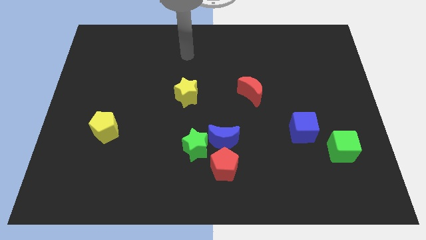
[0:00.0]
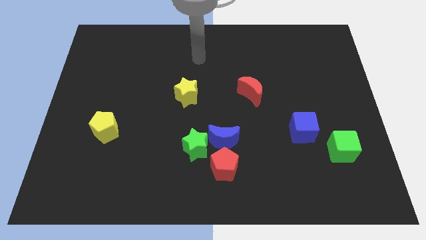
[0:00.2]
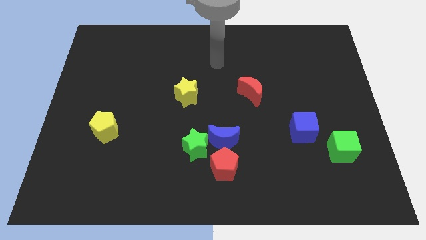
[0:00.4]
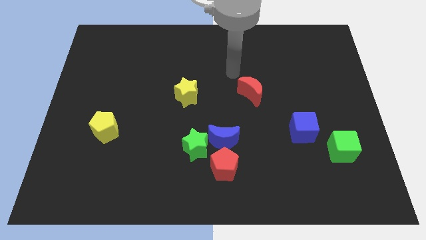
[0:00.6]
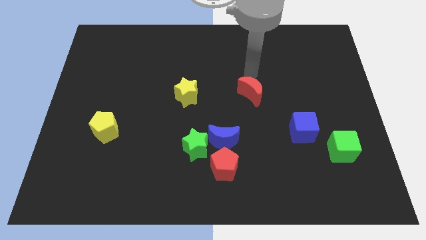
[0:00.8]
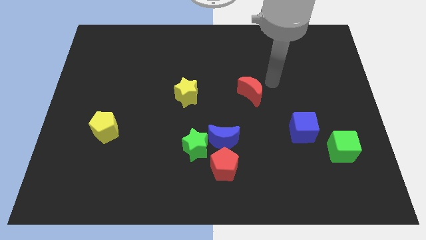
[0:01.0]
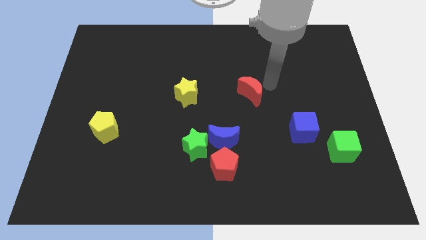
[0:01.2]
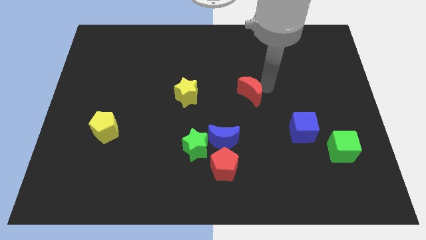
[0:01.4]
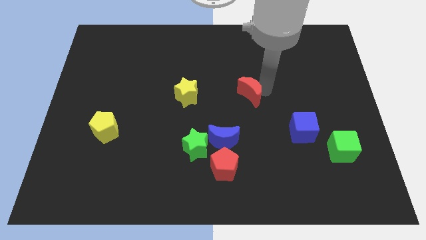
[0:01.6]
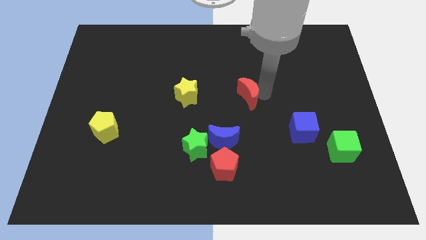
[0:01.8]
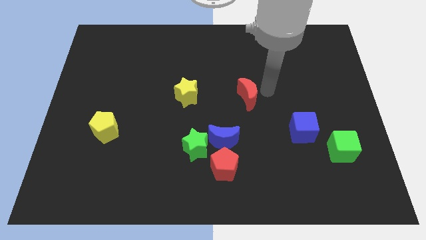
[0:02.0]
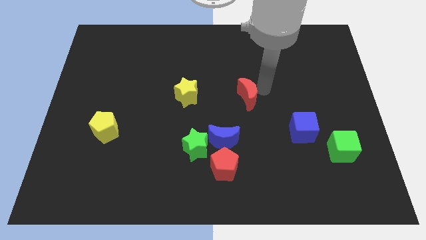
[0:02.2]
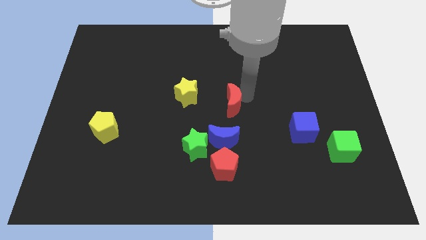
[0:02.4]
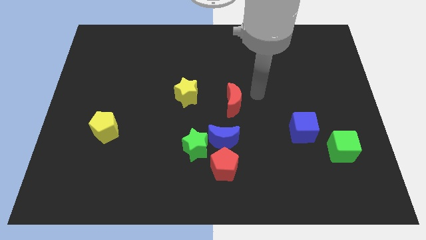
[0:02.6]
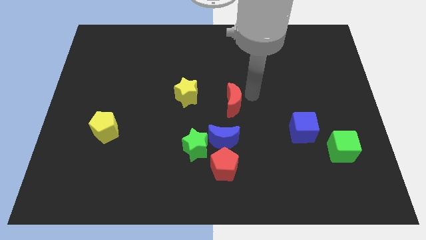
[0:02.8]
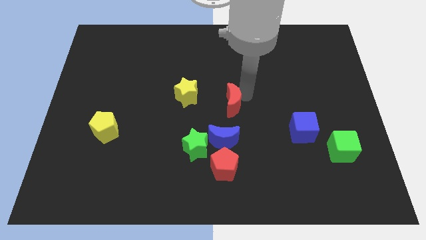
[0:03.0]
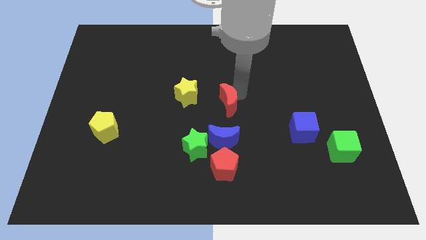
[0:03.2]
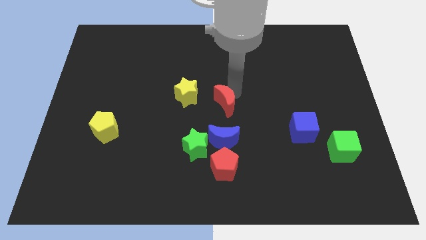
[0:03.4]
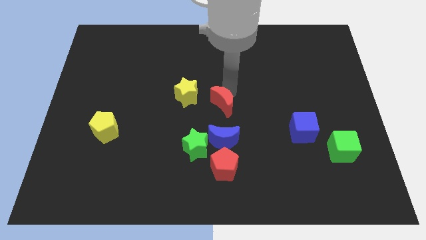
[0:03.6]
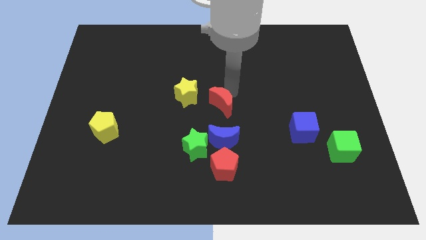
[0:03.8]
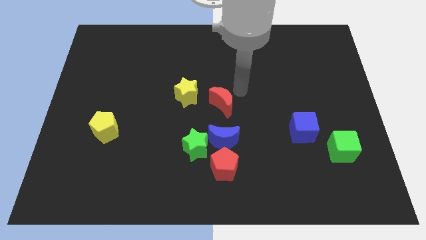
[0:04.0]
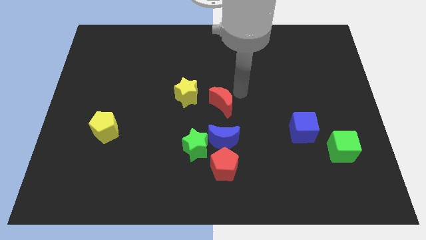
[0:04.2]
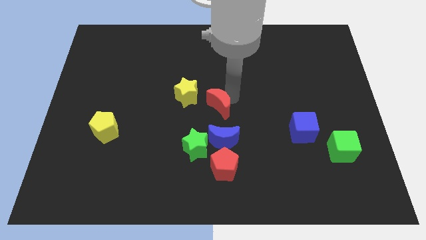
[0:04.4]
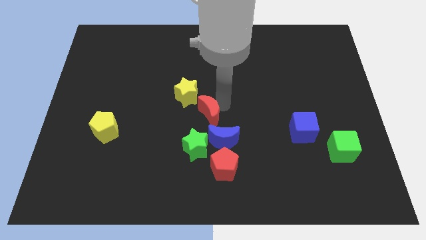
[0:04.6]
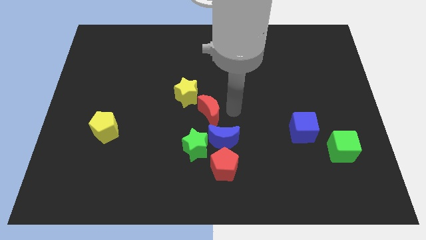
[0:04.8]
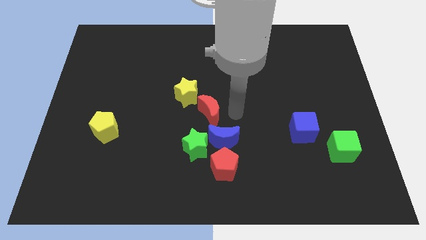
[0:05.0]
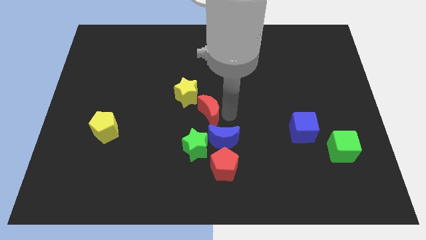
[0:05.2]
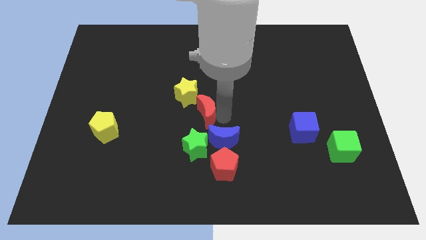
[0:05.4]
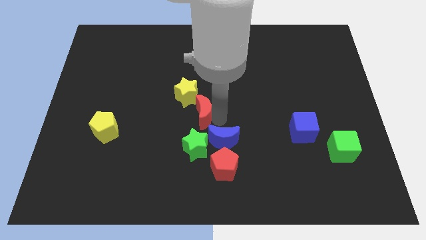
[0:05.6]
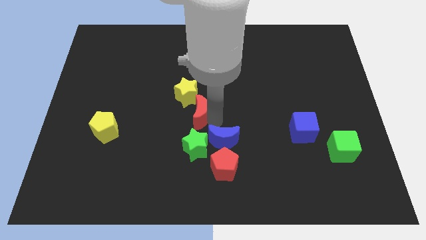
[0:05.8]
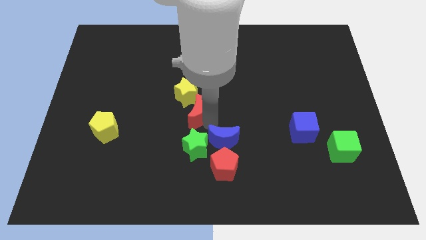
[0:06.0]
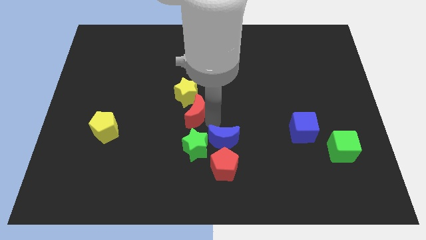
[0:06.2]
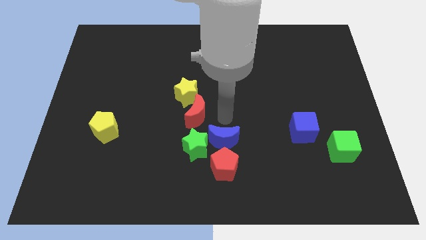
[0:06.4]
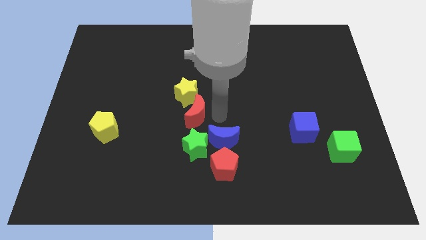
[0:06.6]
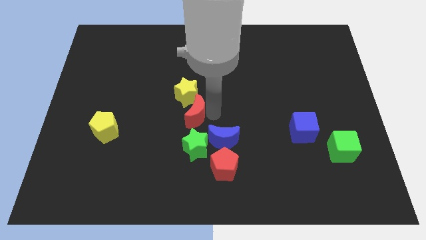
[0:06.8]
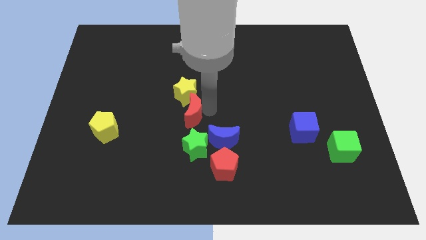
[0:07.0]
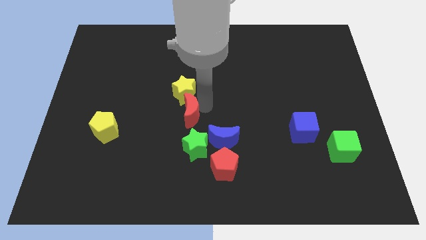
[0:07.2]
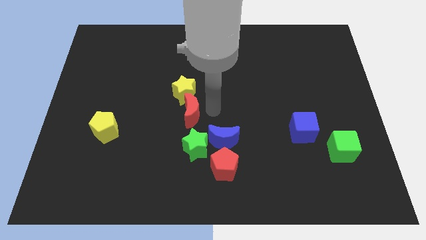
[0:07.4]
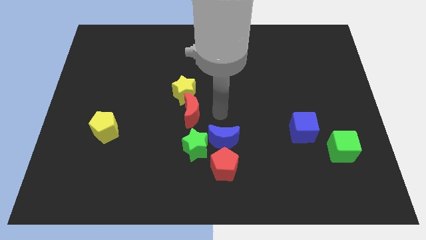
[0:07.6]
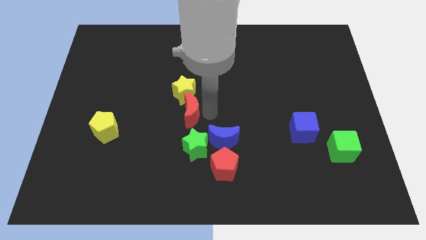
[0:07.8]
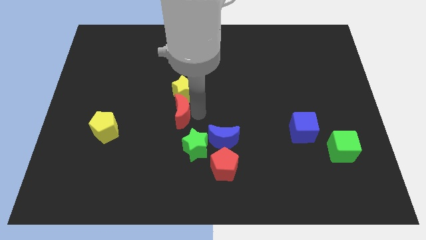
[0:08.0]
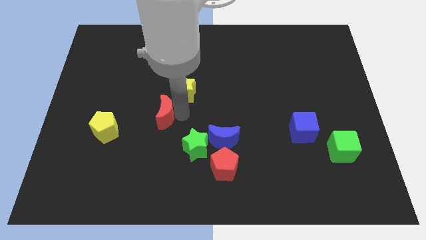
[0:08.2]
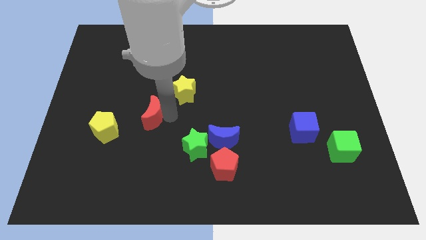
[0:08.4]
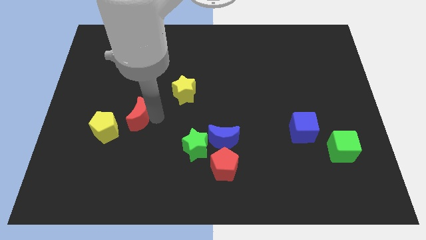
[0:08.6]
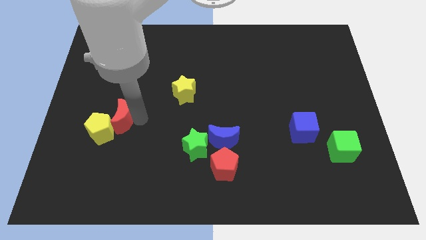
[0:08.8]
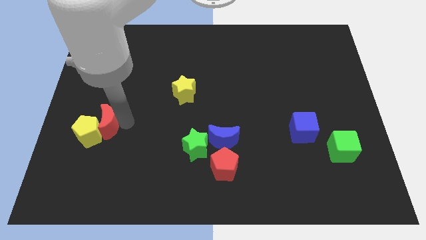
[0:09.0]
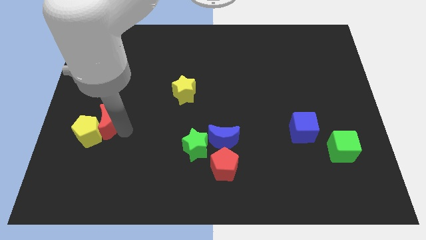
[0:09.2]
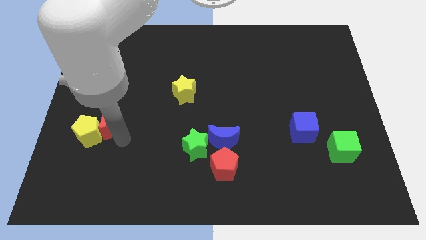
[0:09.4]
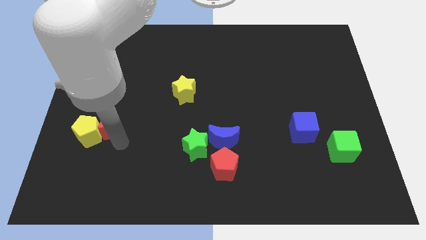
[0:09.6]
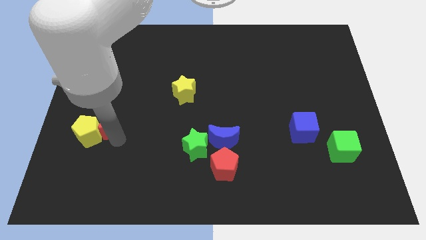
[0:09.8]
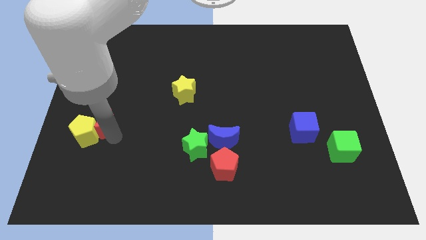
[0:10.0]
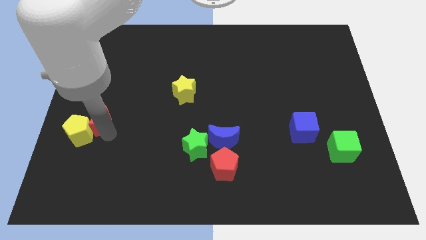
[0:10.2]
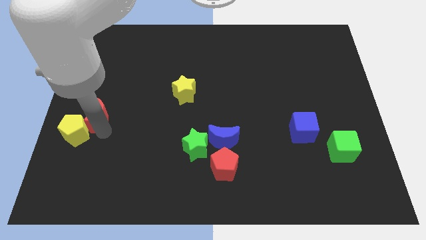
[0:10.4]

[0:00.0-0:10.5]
slide the red moon to the center left
